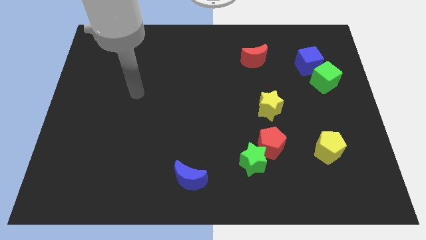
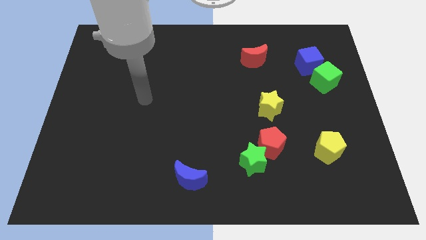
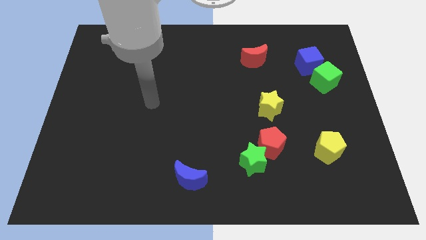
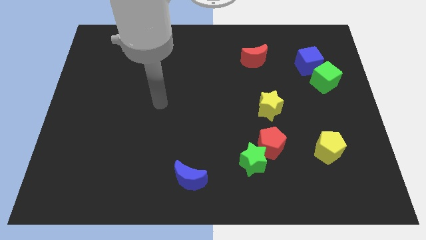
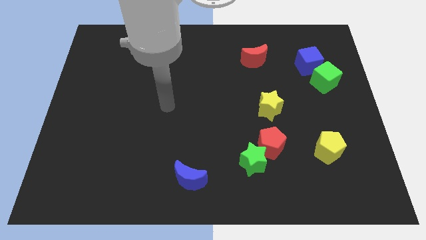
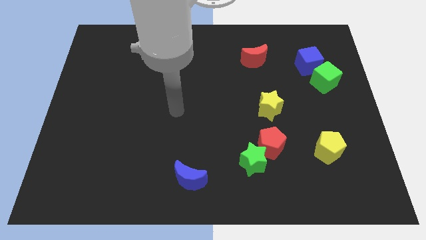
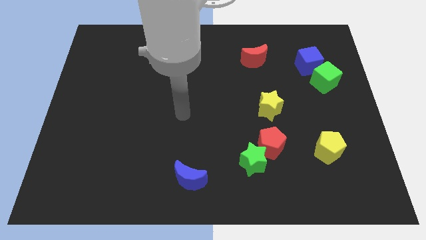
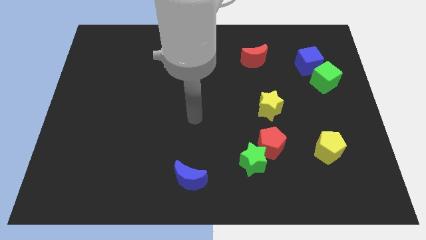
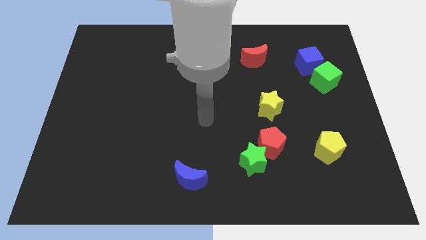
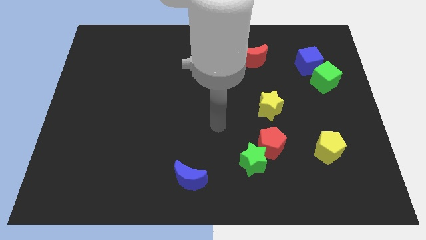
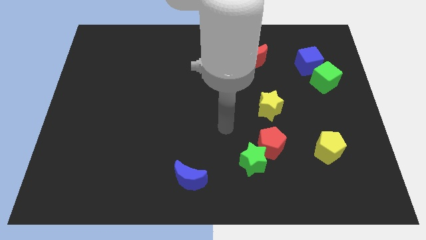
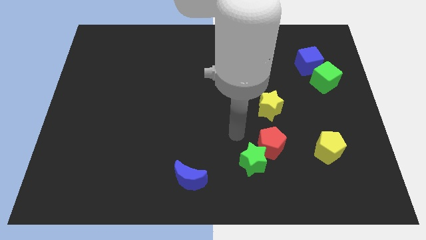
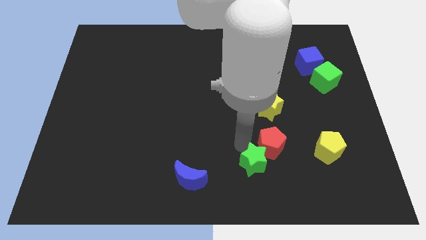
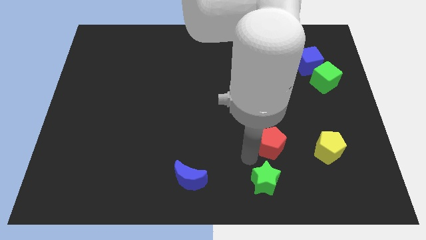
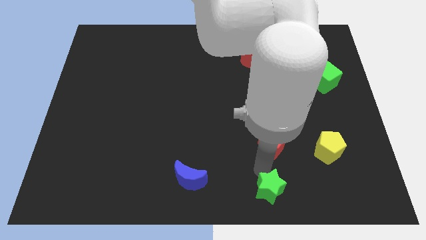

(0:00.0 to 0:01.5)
pull the red pentagon apart from the green star

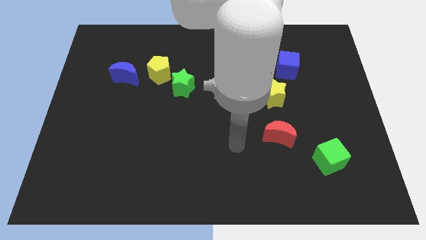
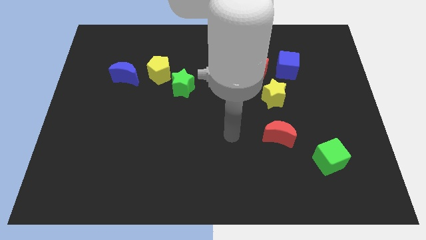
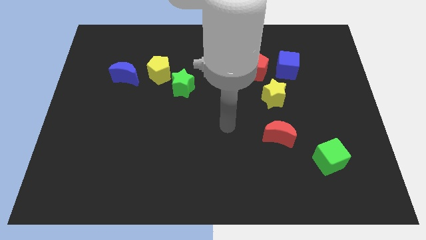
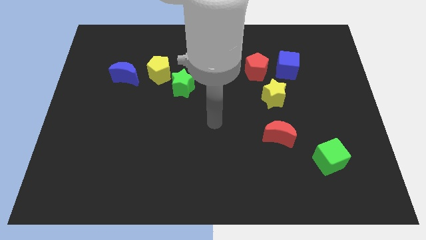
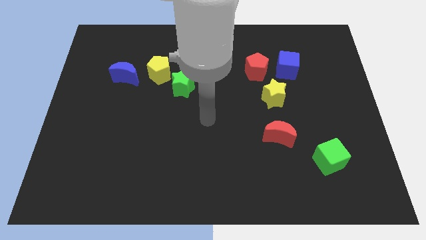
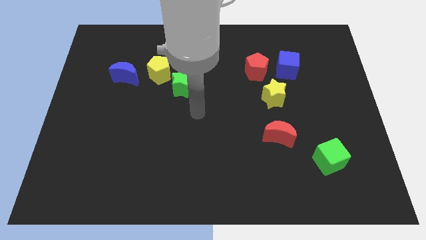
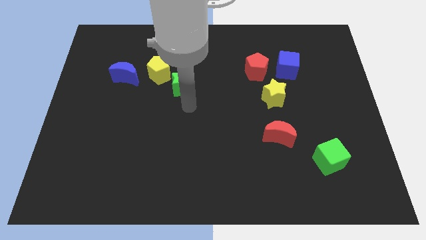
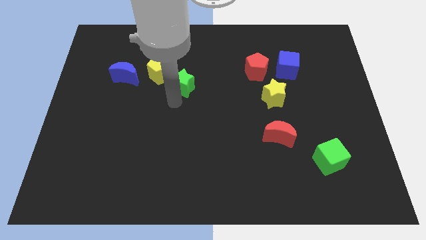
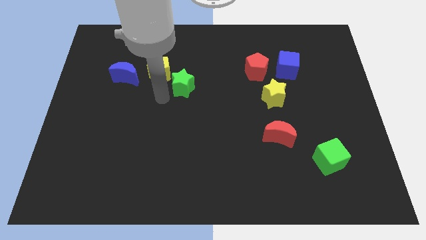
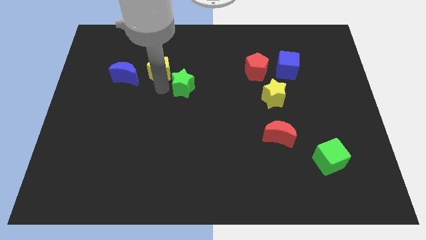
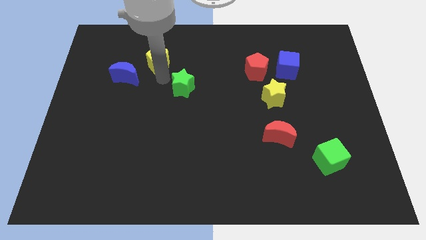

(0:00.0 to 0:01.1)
pull the green star apart from the yellow pentagon

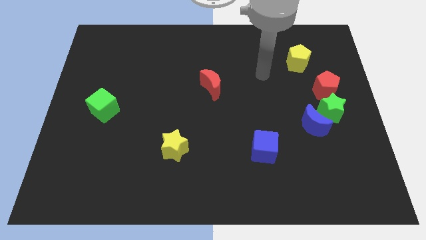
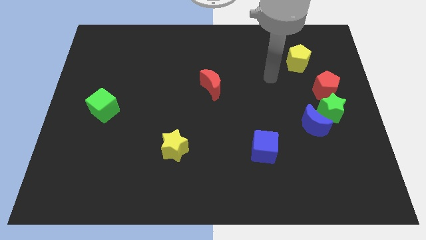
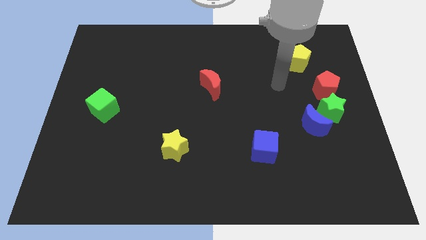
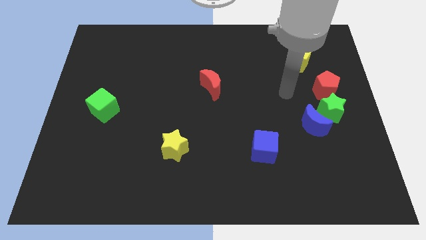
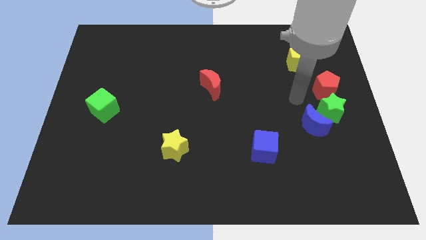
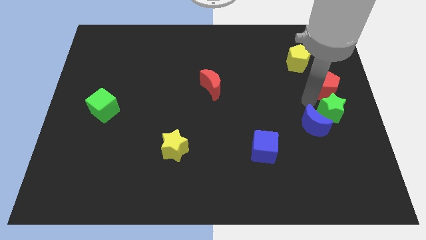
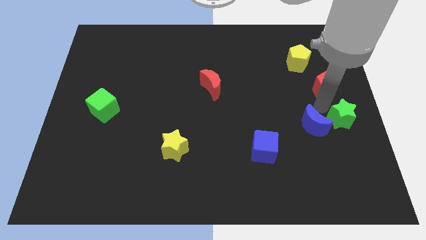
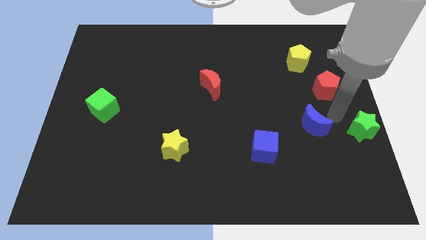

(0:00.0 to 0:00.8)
move the blue moon away from the green star

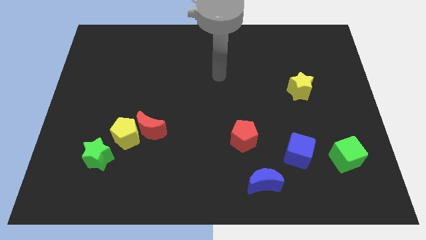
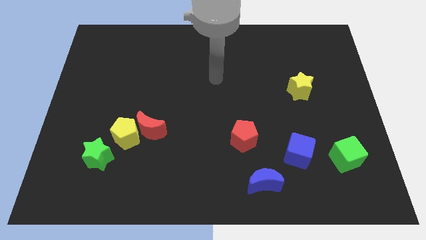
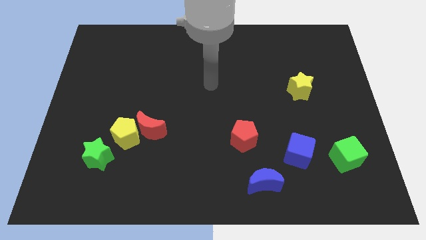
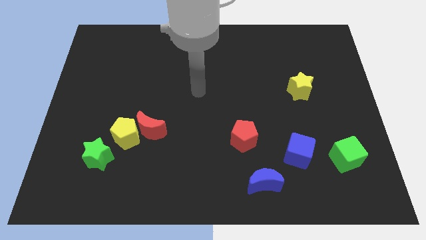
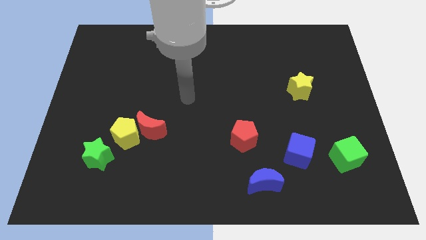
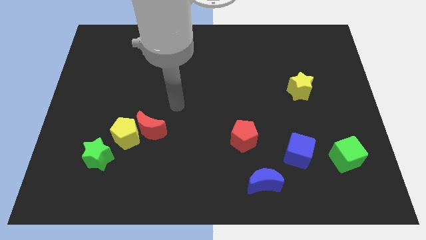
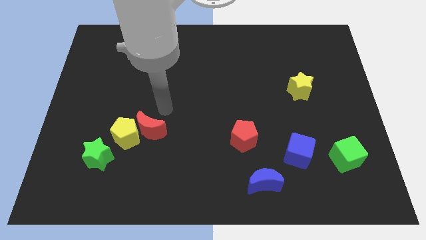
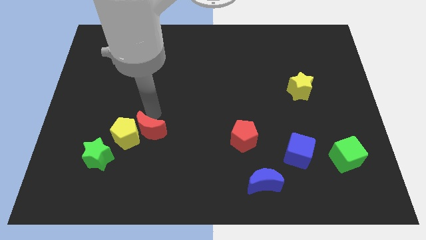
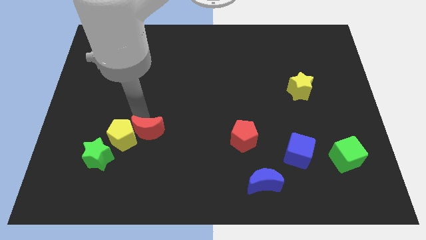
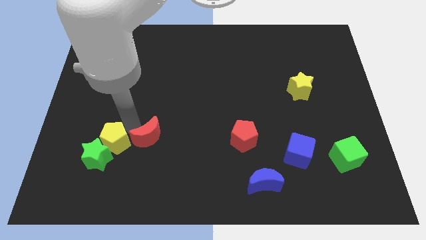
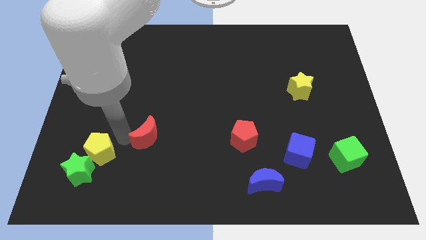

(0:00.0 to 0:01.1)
move the red moon away from the yellow pentagon

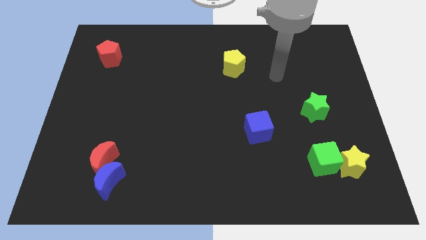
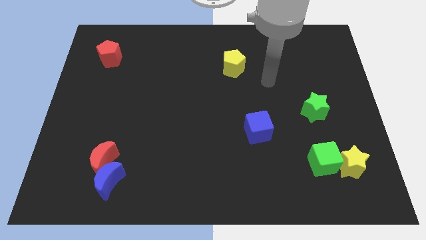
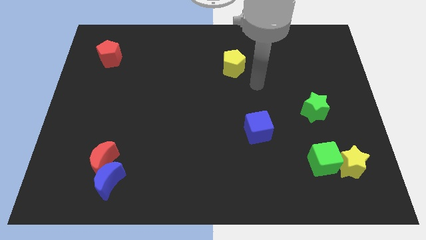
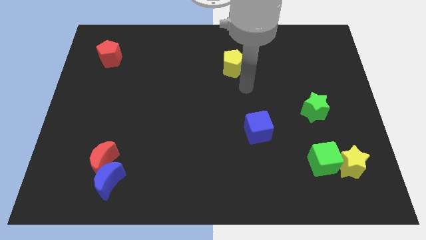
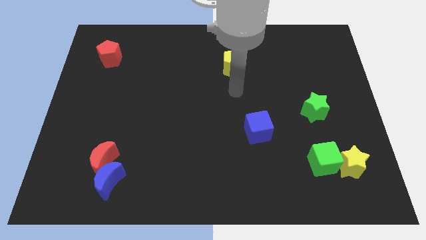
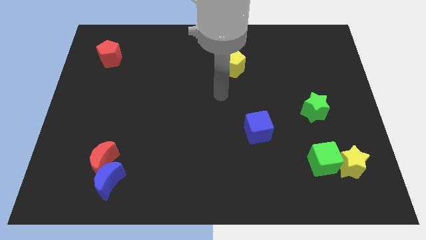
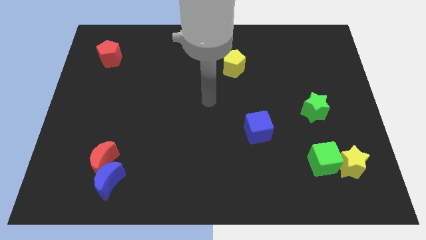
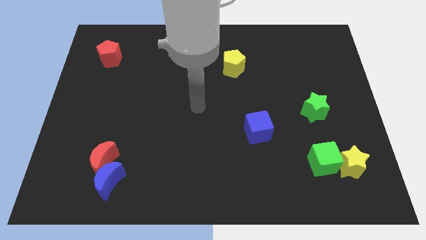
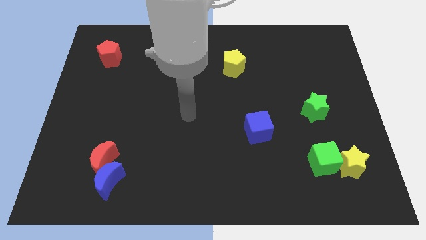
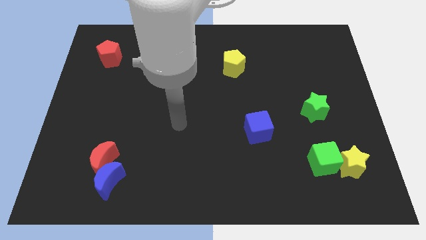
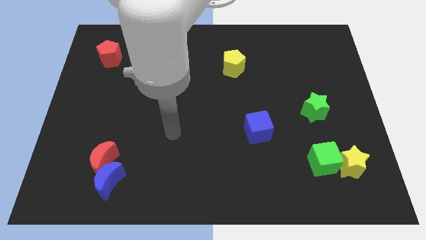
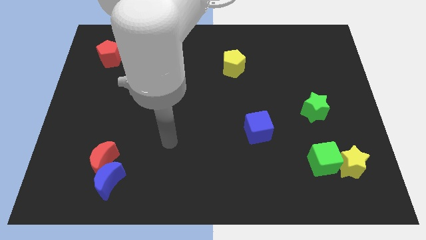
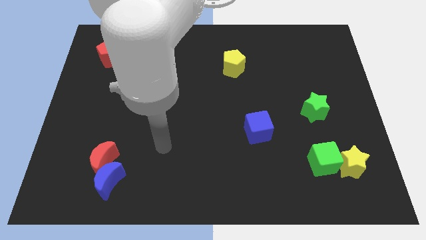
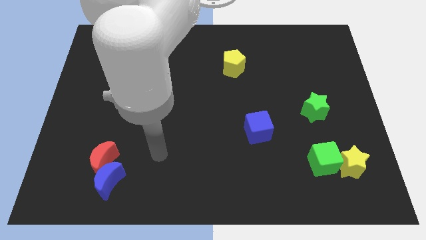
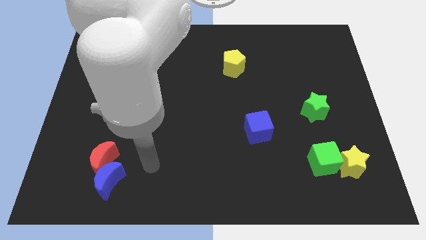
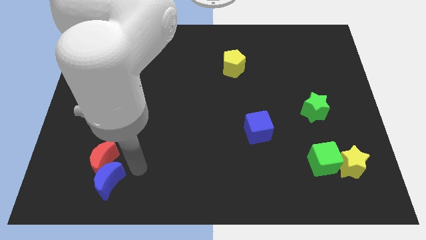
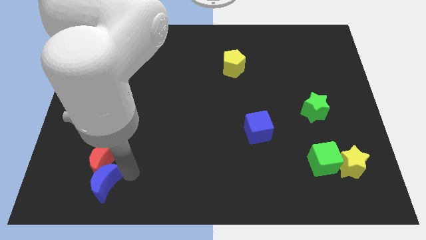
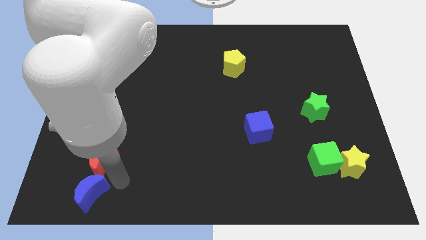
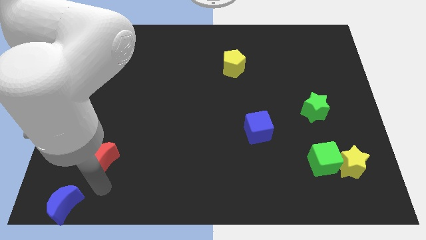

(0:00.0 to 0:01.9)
move the red moon away from the blue moon

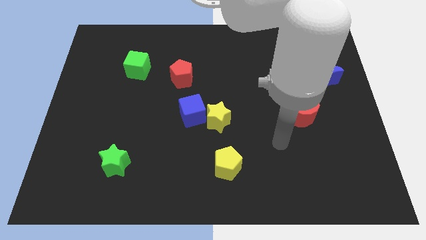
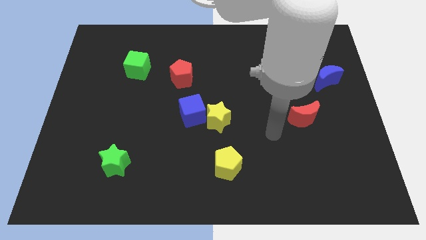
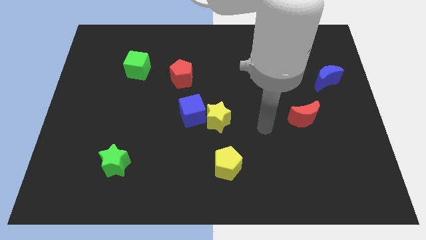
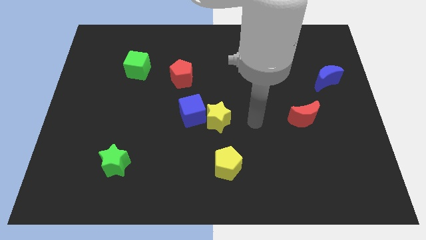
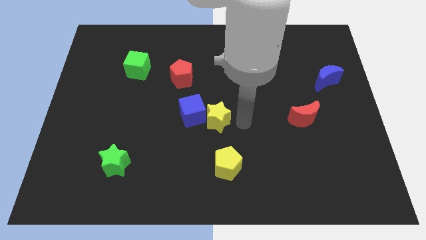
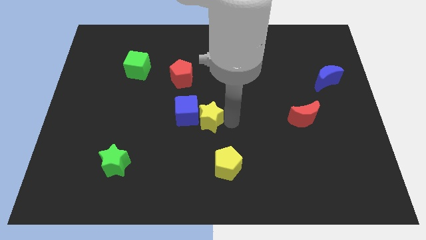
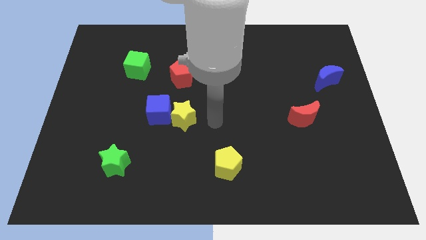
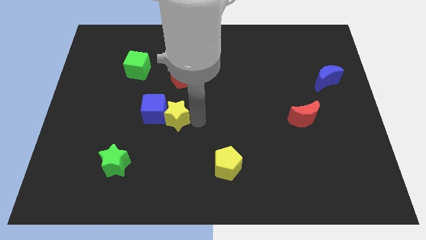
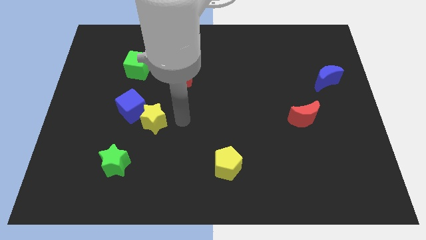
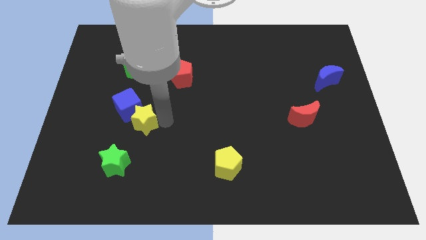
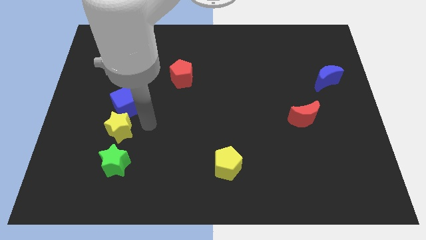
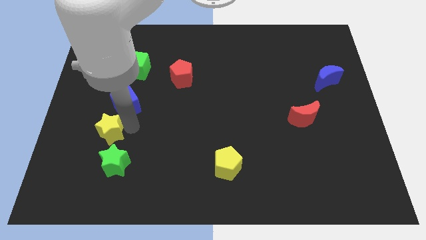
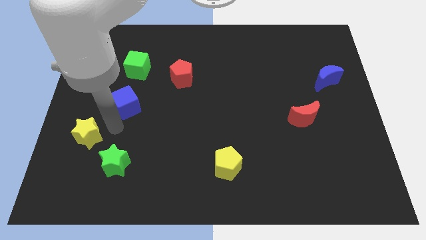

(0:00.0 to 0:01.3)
separate the blue cube from the yellow star

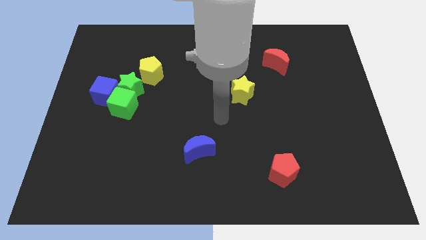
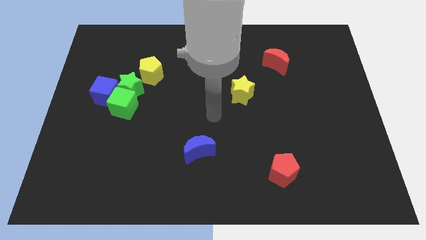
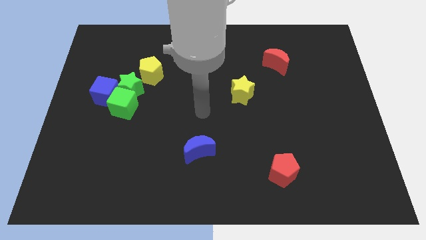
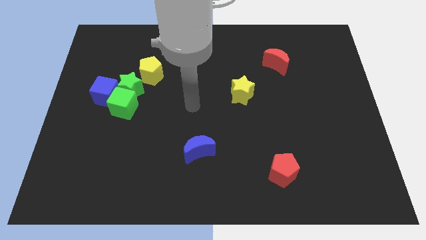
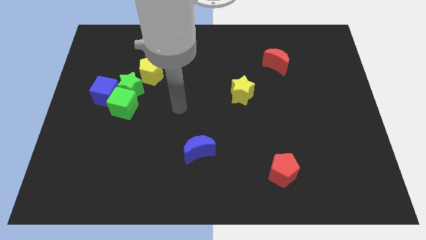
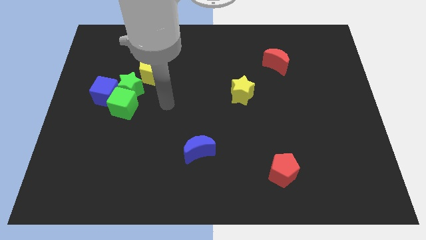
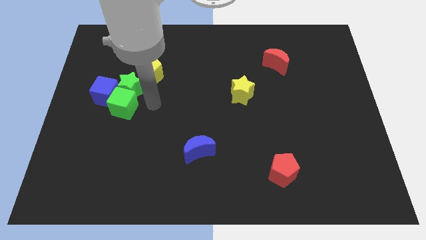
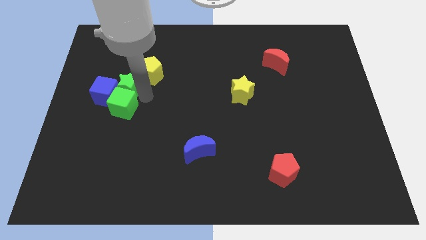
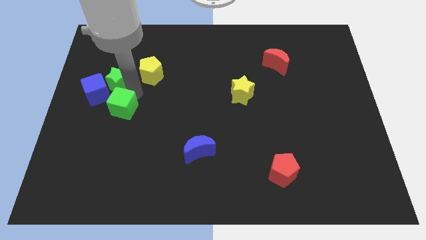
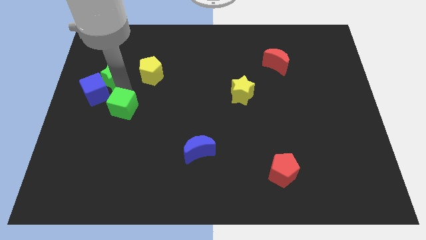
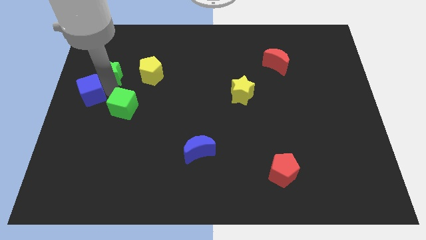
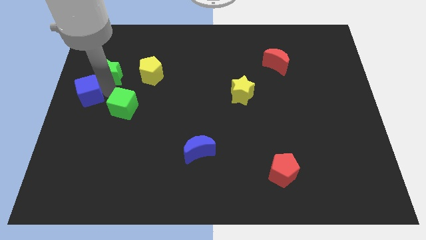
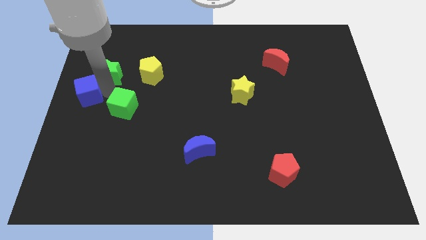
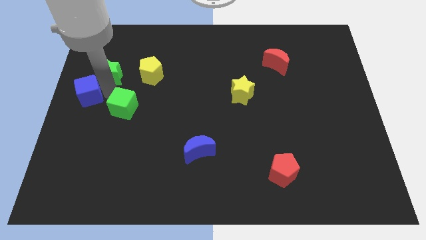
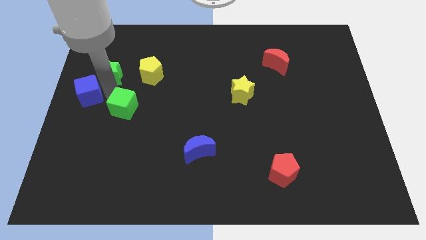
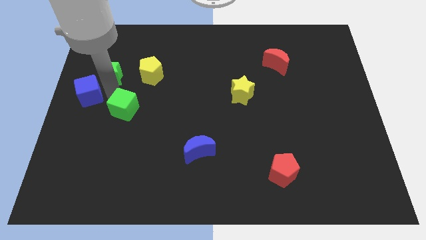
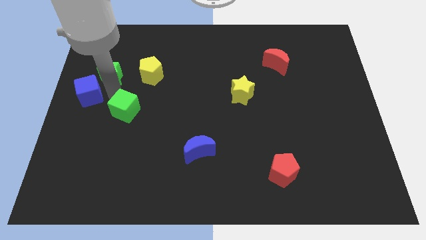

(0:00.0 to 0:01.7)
move the green cube away from the green star and blue cube
